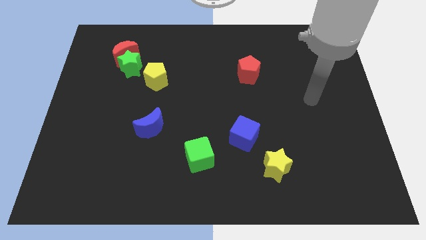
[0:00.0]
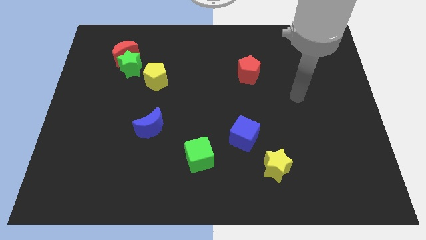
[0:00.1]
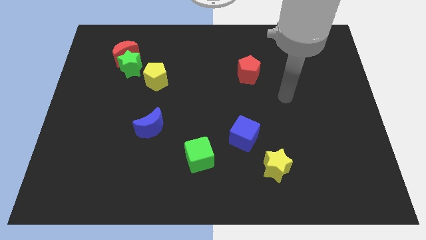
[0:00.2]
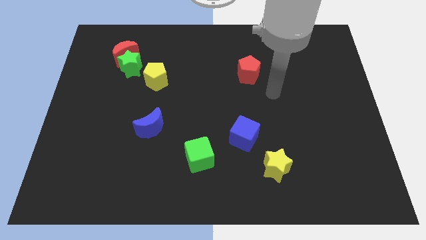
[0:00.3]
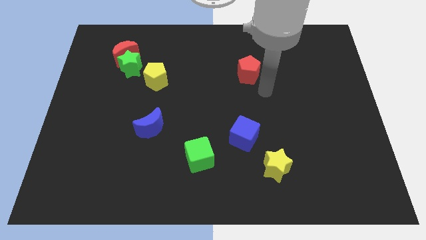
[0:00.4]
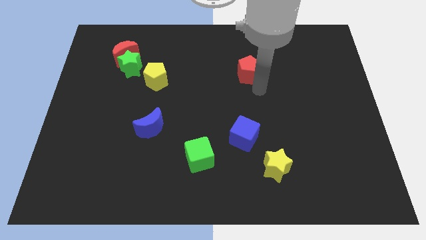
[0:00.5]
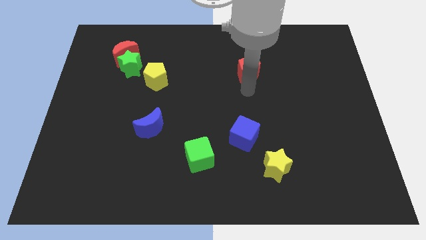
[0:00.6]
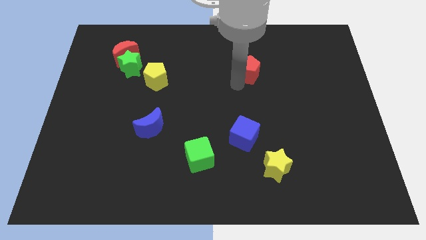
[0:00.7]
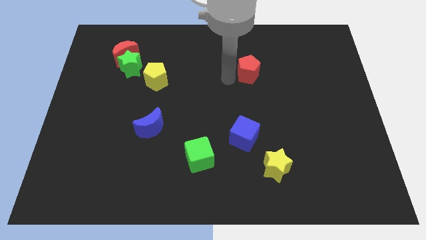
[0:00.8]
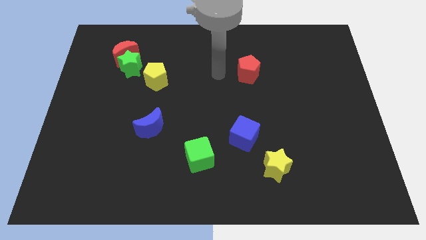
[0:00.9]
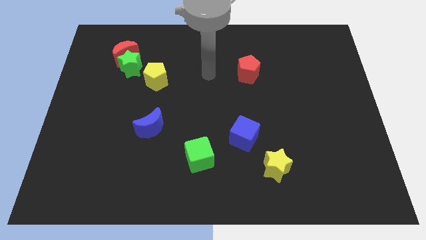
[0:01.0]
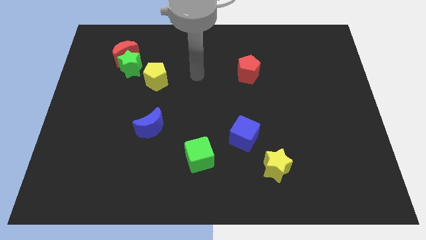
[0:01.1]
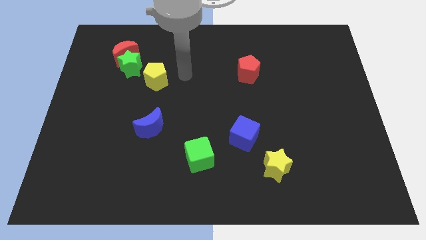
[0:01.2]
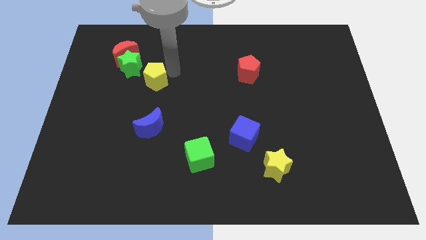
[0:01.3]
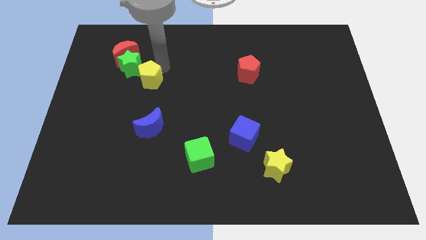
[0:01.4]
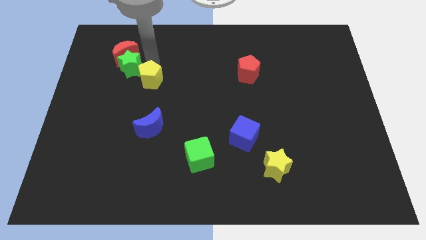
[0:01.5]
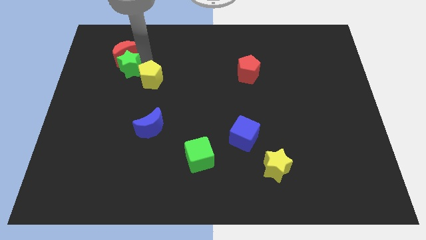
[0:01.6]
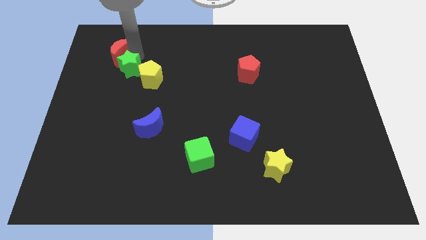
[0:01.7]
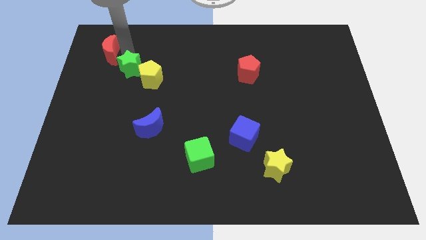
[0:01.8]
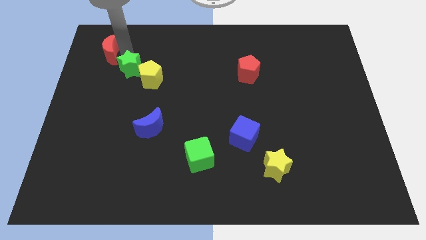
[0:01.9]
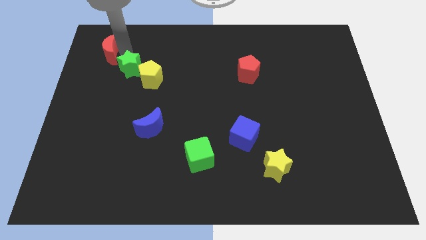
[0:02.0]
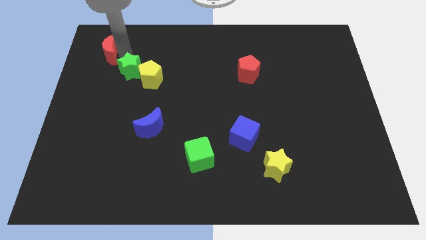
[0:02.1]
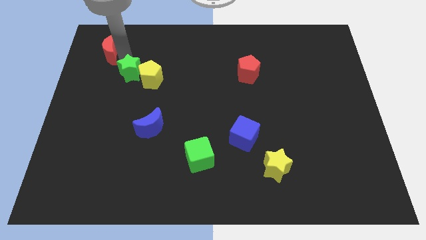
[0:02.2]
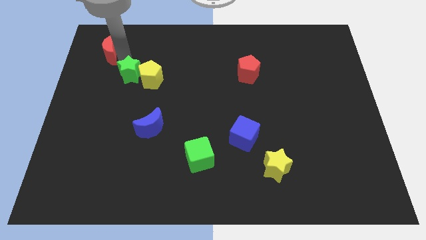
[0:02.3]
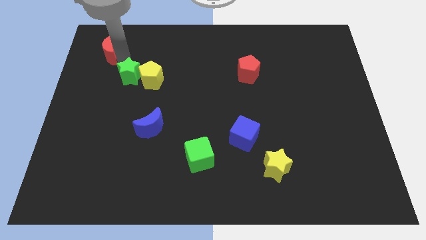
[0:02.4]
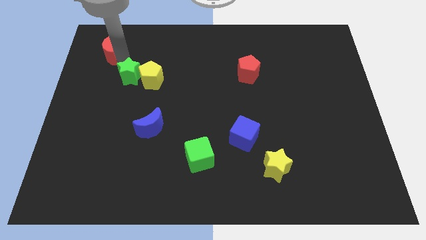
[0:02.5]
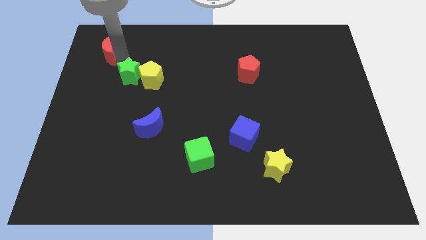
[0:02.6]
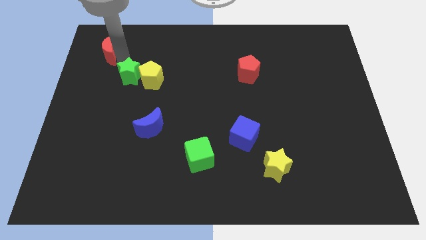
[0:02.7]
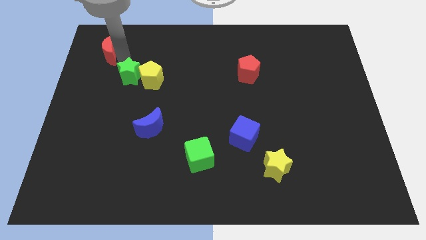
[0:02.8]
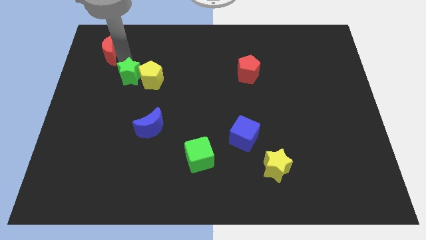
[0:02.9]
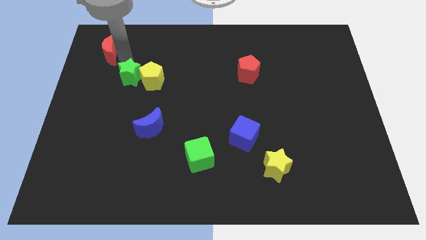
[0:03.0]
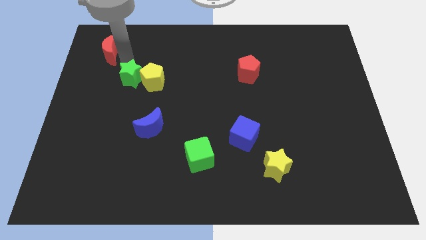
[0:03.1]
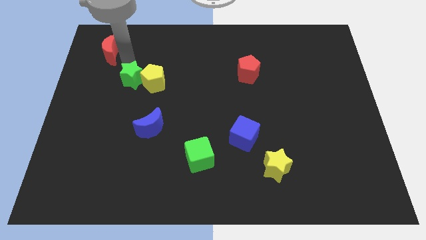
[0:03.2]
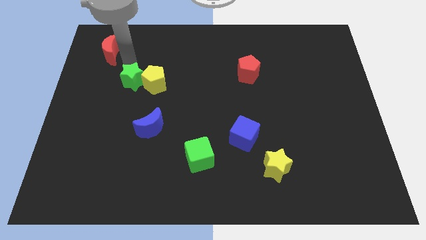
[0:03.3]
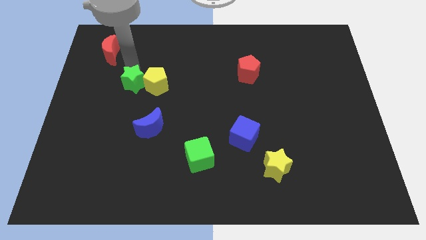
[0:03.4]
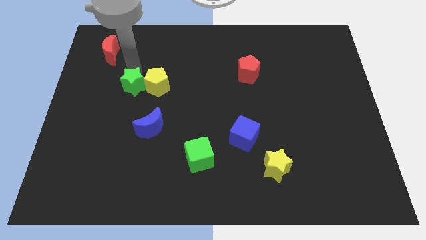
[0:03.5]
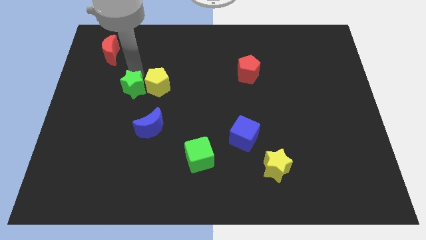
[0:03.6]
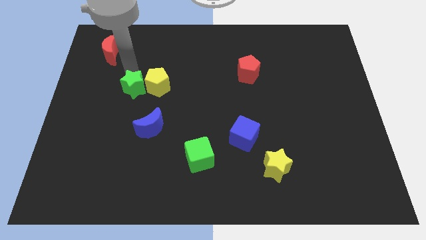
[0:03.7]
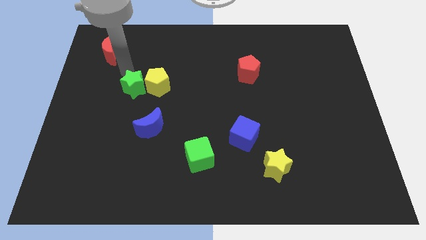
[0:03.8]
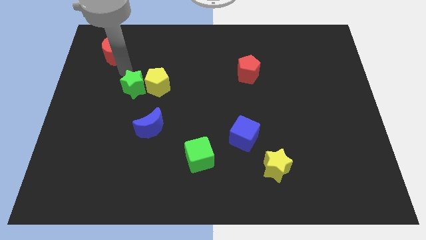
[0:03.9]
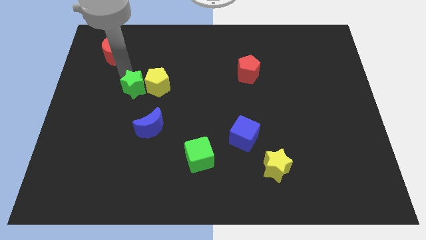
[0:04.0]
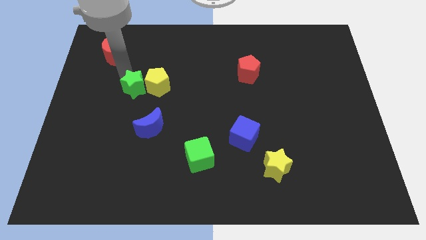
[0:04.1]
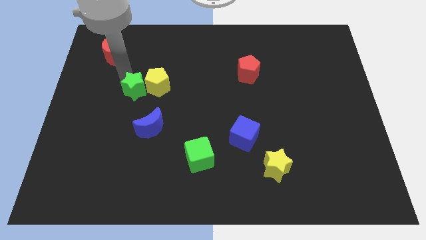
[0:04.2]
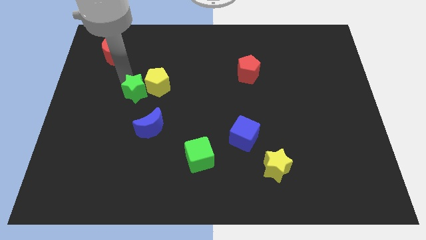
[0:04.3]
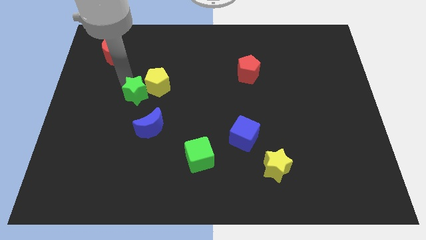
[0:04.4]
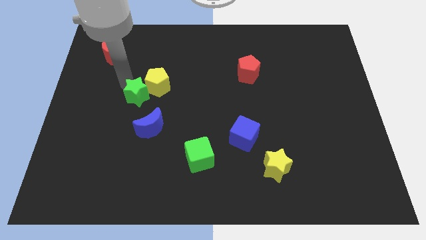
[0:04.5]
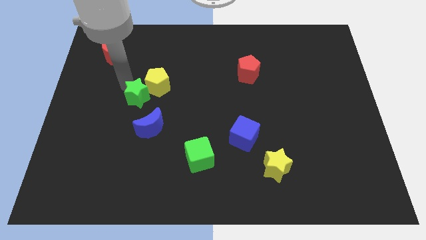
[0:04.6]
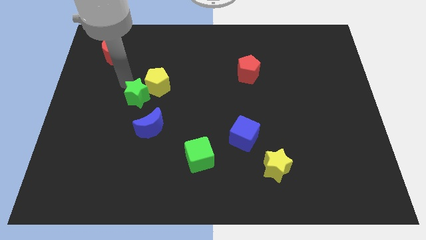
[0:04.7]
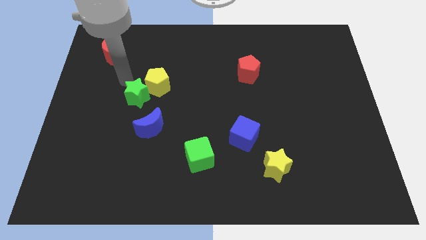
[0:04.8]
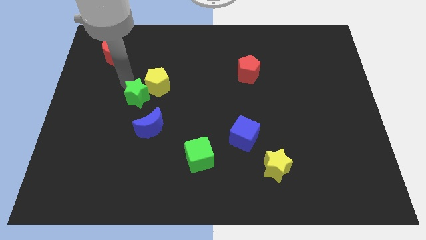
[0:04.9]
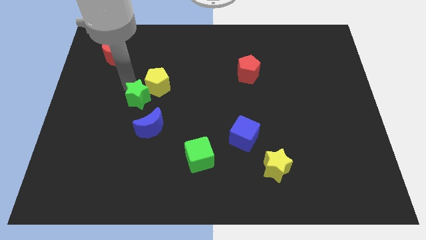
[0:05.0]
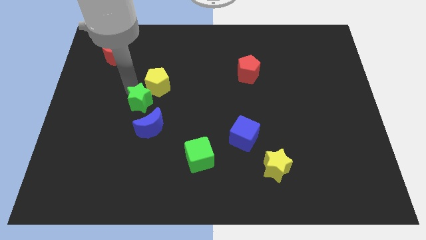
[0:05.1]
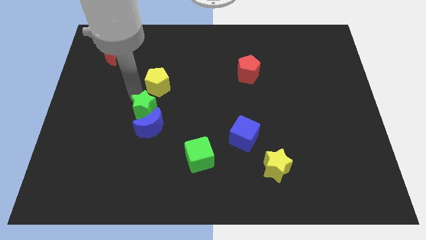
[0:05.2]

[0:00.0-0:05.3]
slide the green star next to the blue moon

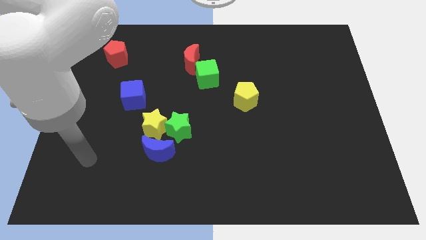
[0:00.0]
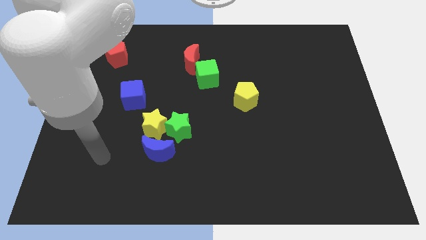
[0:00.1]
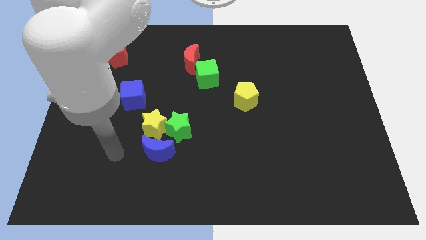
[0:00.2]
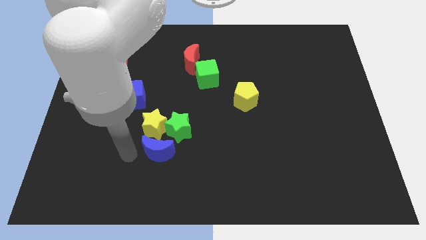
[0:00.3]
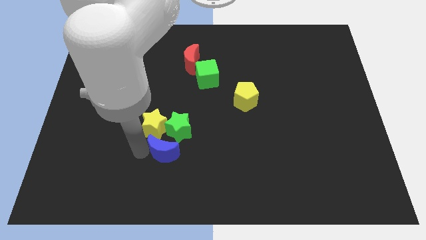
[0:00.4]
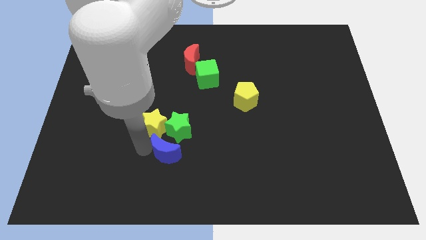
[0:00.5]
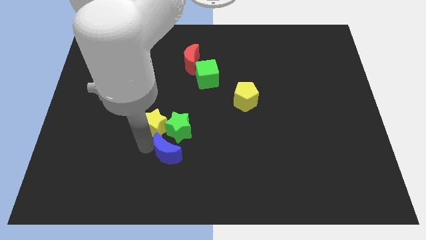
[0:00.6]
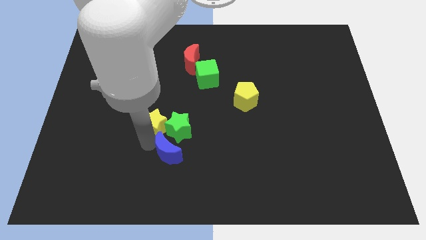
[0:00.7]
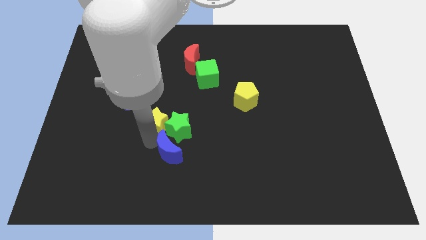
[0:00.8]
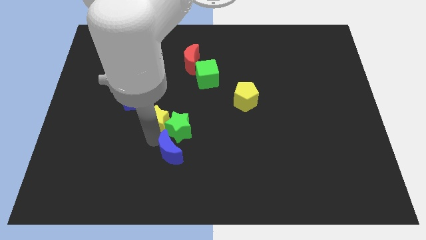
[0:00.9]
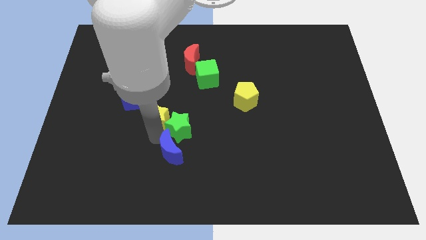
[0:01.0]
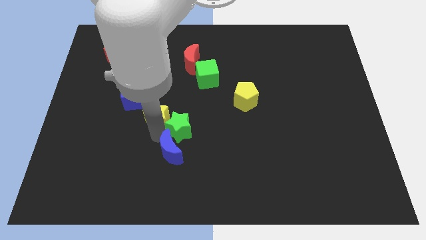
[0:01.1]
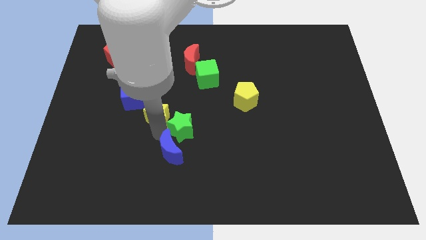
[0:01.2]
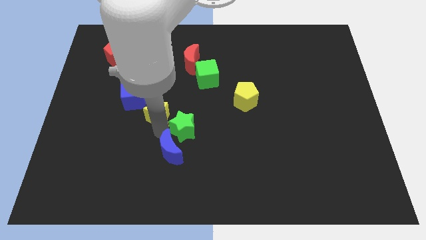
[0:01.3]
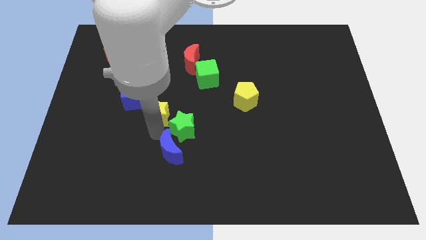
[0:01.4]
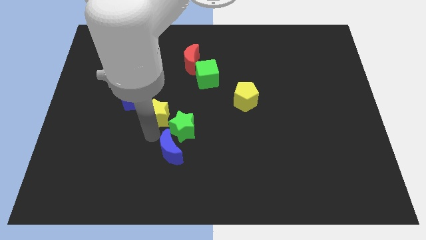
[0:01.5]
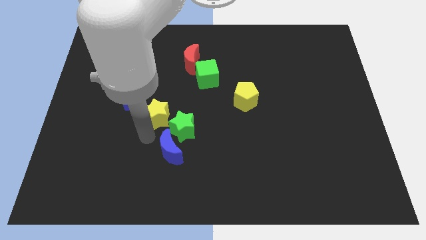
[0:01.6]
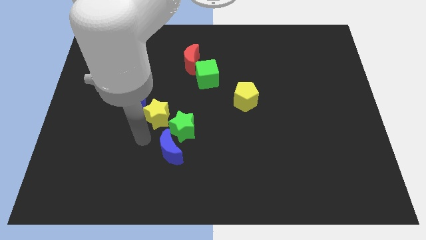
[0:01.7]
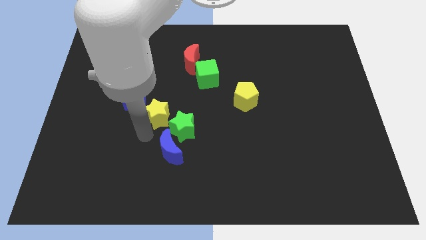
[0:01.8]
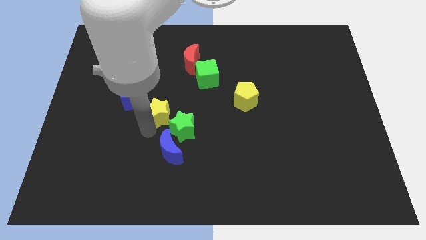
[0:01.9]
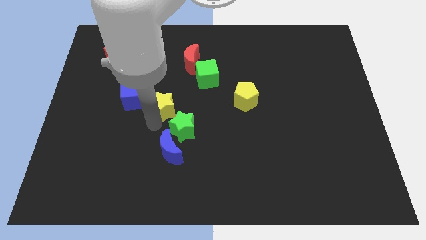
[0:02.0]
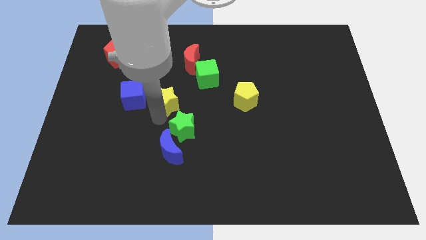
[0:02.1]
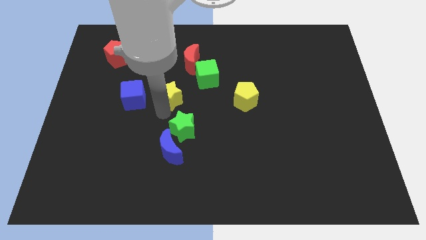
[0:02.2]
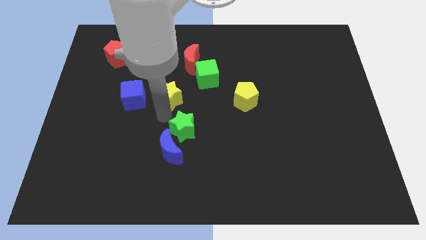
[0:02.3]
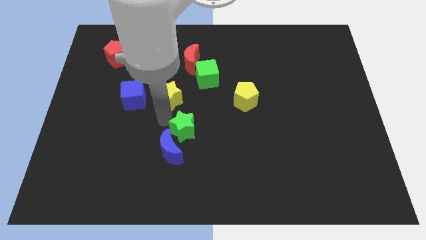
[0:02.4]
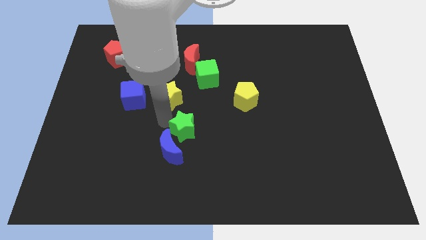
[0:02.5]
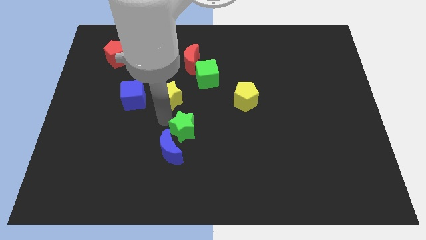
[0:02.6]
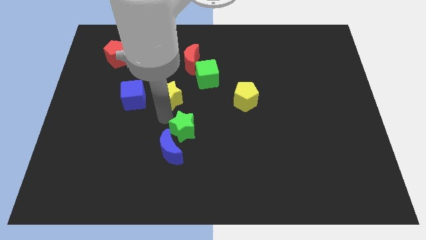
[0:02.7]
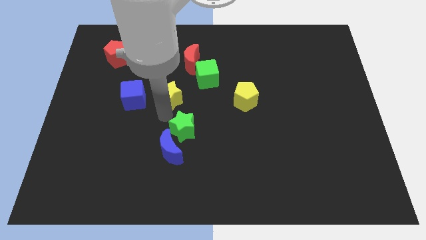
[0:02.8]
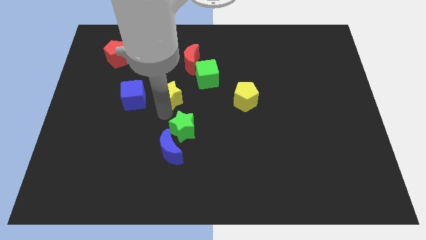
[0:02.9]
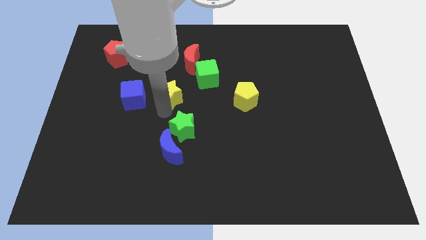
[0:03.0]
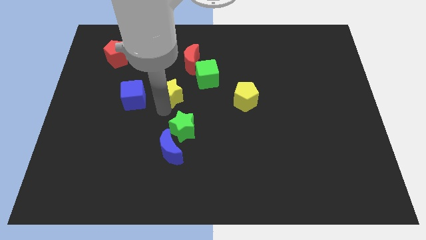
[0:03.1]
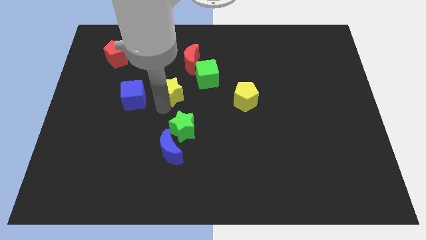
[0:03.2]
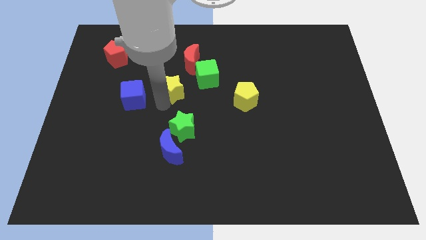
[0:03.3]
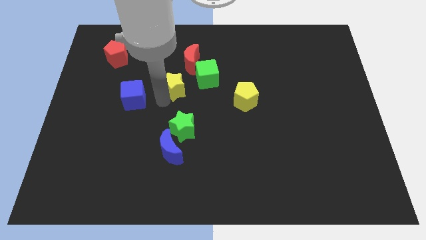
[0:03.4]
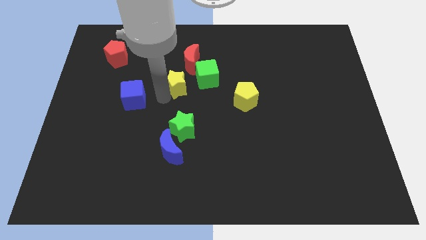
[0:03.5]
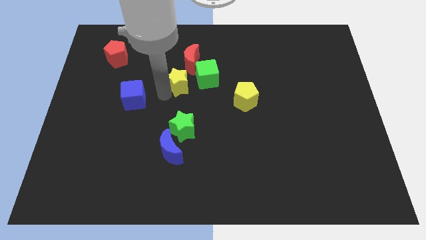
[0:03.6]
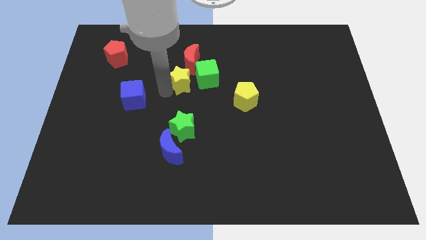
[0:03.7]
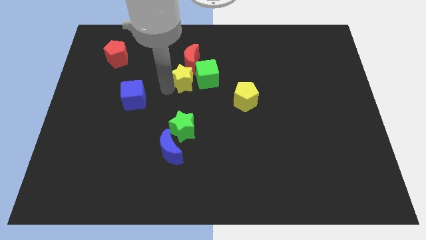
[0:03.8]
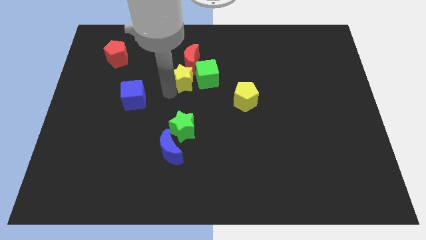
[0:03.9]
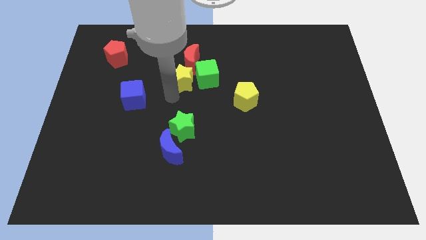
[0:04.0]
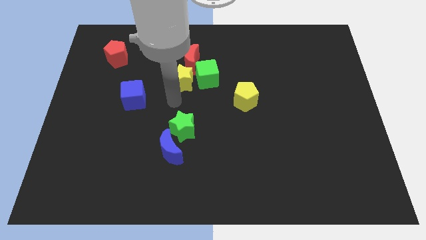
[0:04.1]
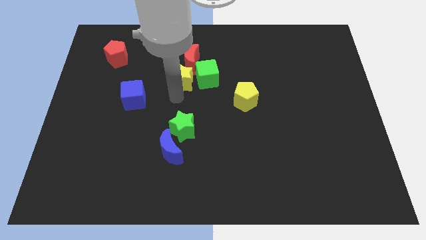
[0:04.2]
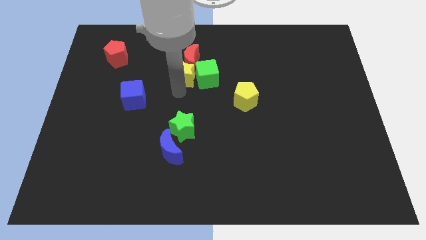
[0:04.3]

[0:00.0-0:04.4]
slide the yellow star next to the red moon
